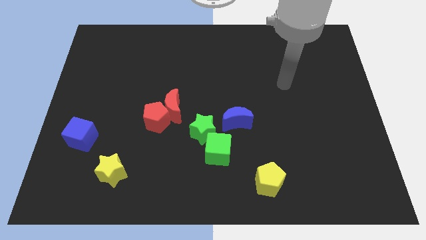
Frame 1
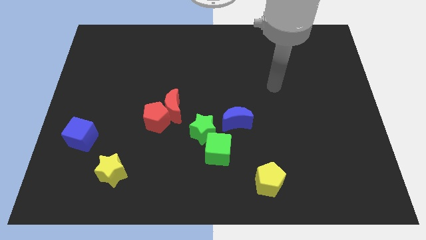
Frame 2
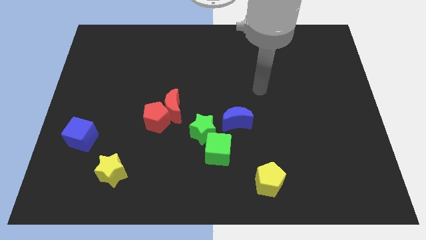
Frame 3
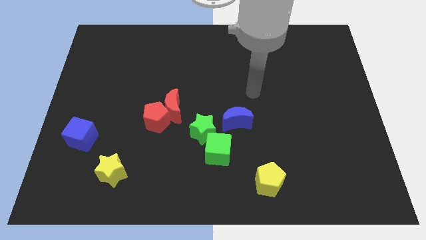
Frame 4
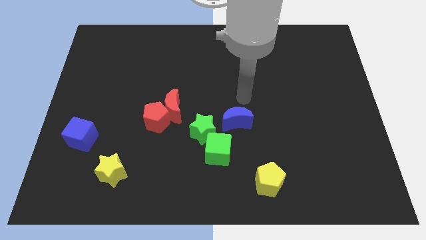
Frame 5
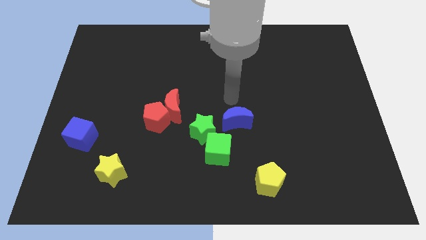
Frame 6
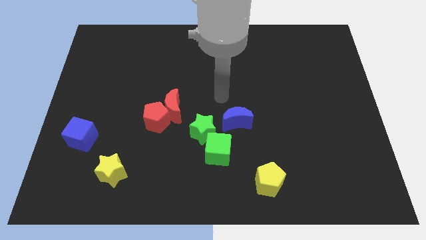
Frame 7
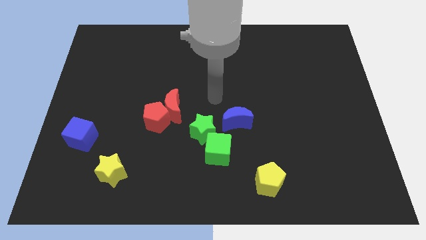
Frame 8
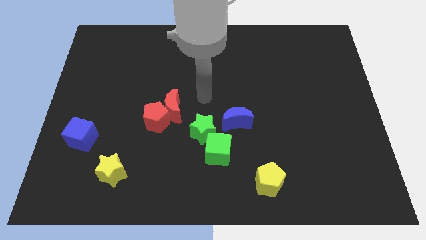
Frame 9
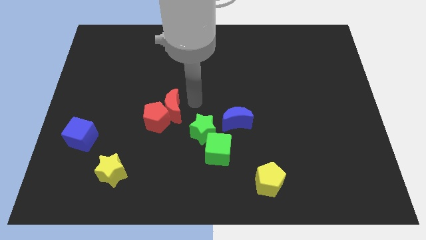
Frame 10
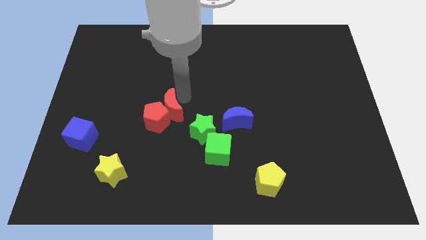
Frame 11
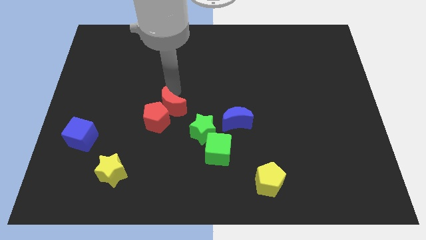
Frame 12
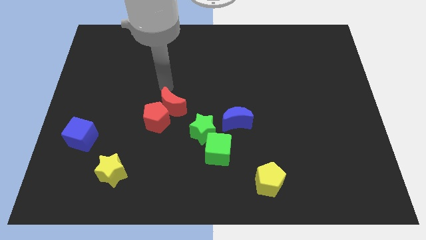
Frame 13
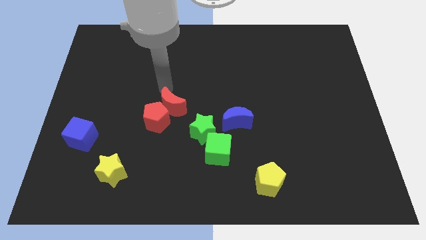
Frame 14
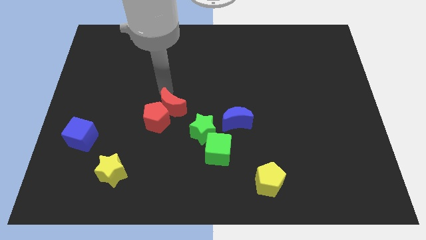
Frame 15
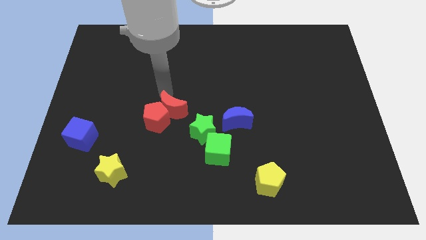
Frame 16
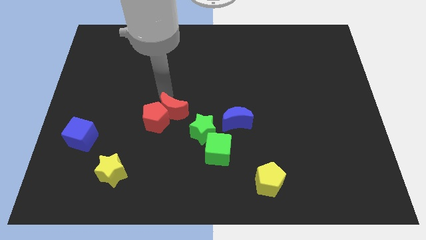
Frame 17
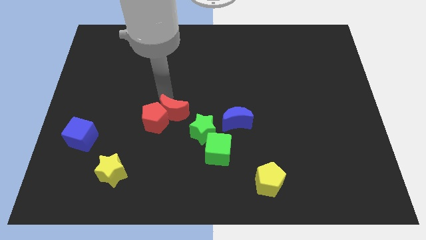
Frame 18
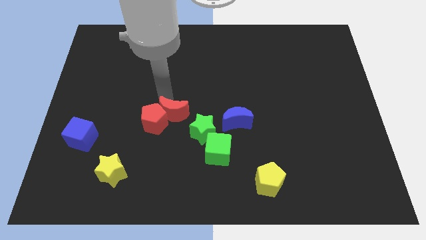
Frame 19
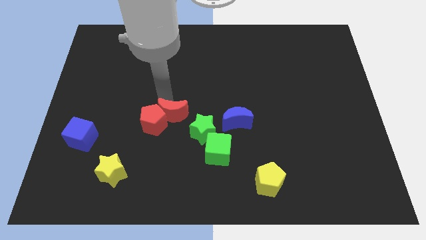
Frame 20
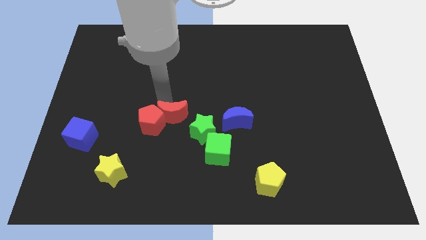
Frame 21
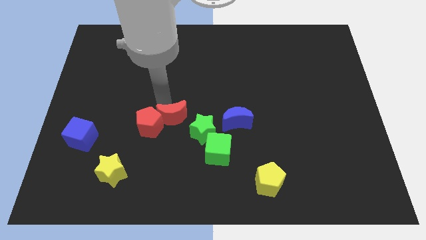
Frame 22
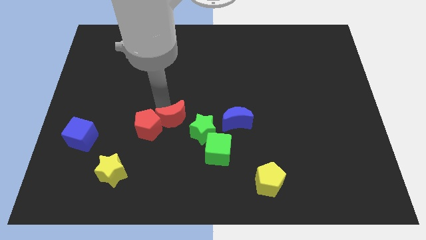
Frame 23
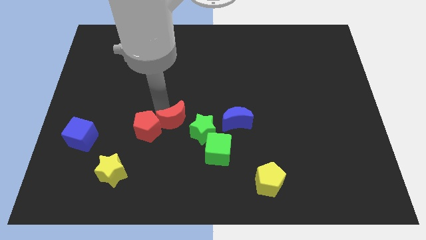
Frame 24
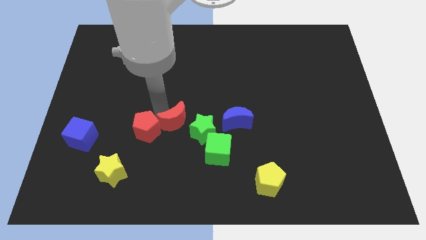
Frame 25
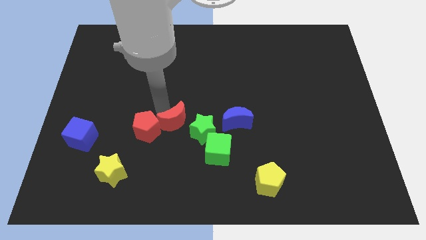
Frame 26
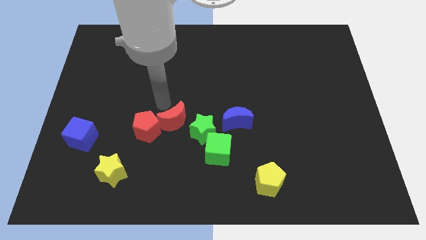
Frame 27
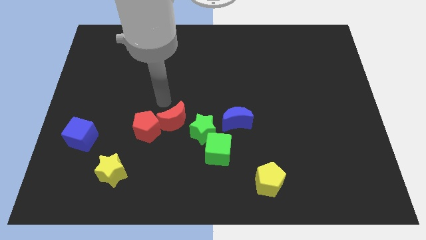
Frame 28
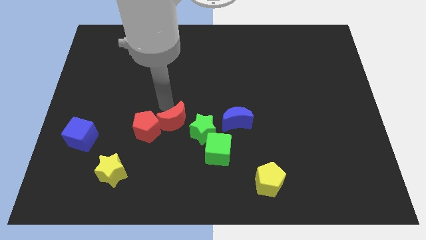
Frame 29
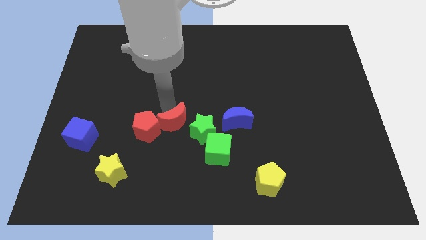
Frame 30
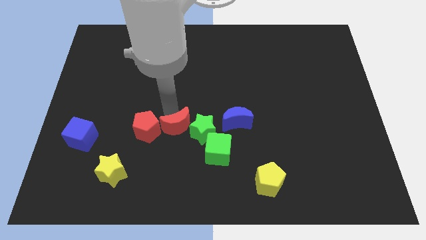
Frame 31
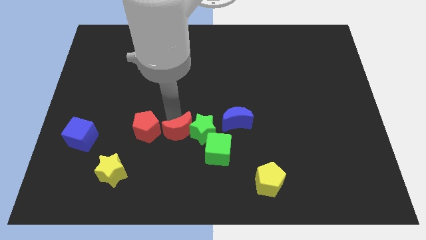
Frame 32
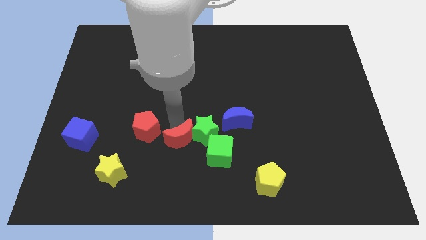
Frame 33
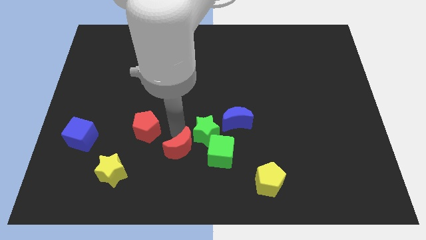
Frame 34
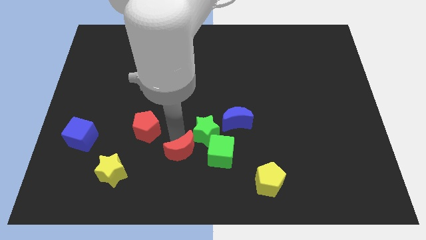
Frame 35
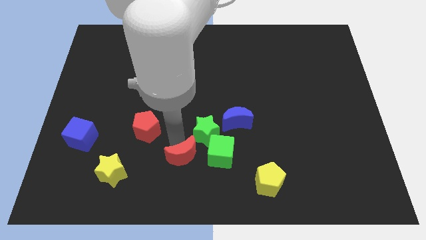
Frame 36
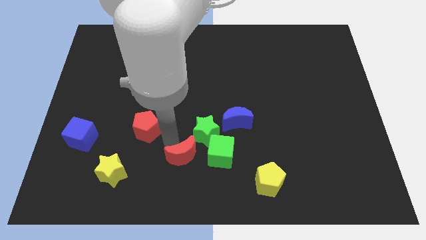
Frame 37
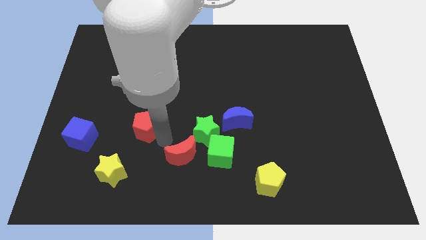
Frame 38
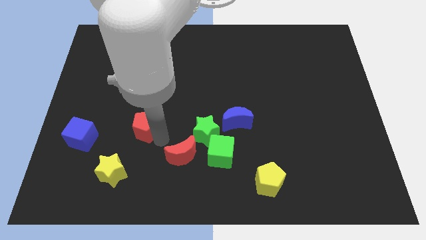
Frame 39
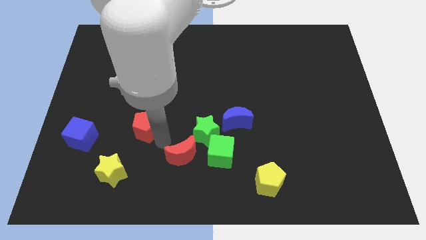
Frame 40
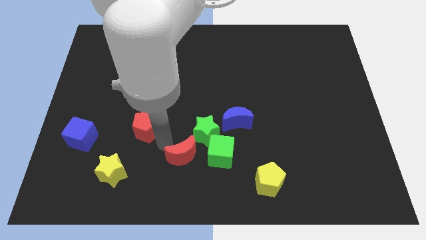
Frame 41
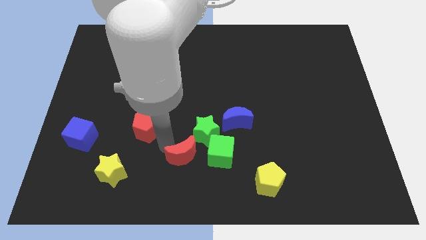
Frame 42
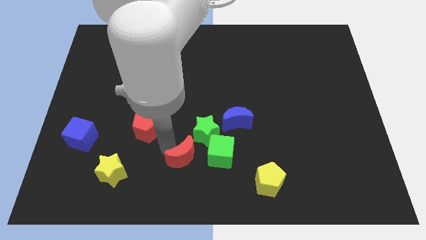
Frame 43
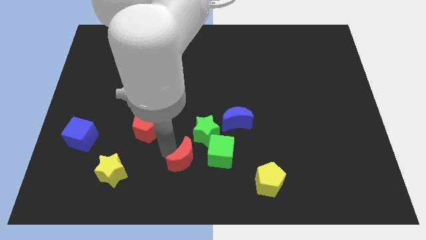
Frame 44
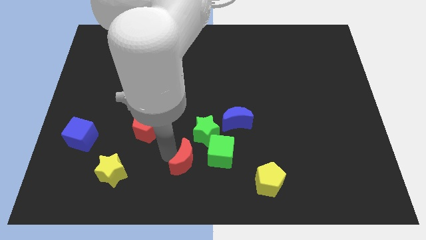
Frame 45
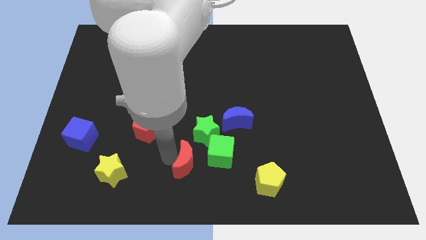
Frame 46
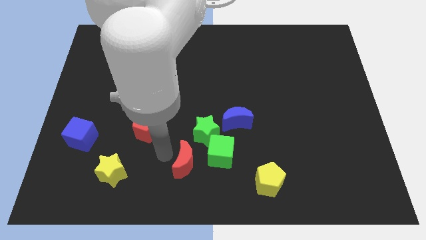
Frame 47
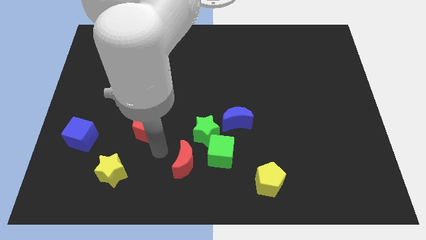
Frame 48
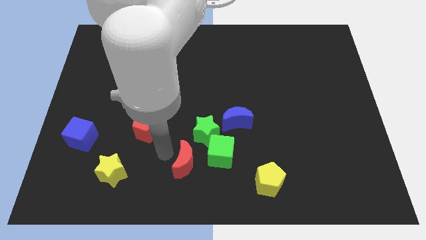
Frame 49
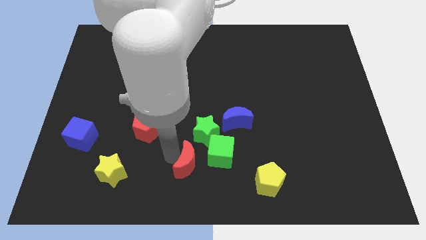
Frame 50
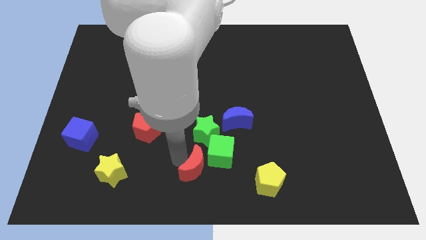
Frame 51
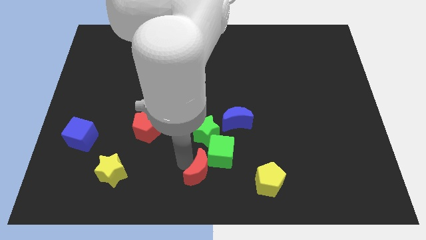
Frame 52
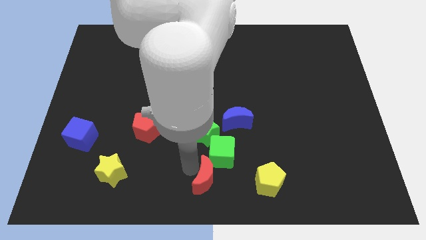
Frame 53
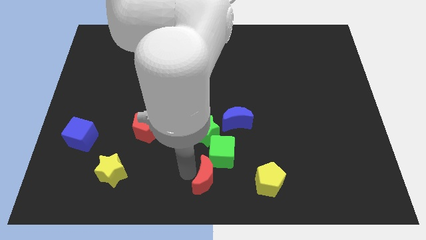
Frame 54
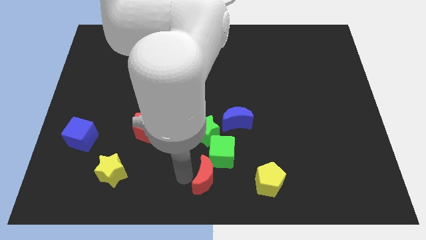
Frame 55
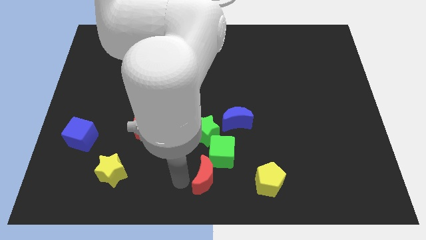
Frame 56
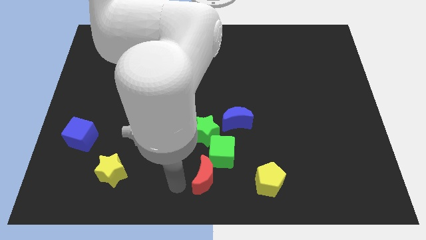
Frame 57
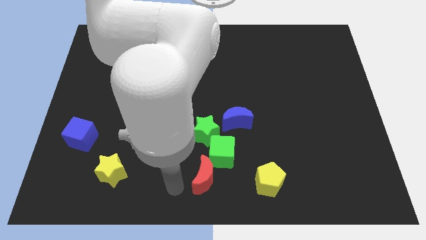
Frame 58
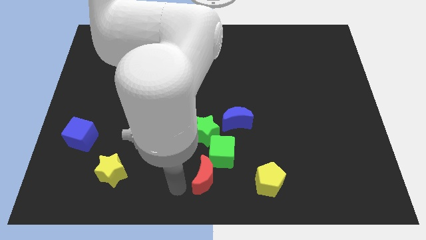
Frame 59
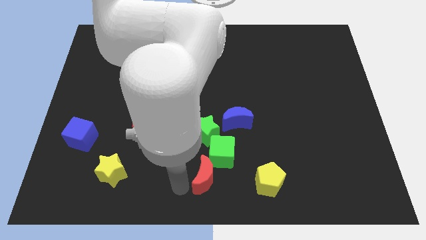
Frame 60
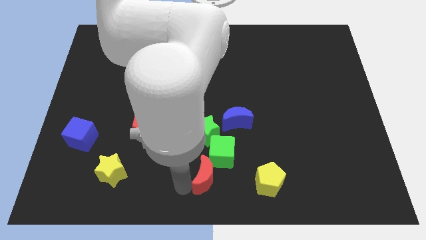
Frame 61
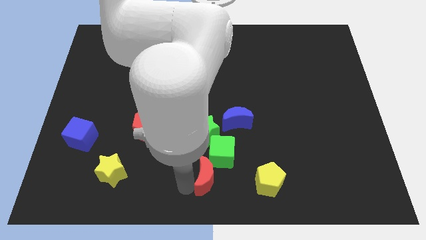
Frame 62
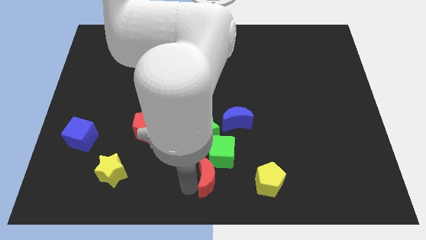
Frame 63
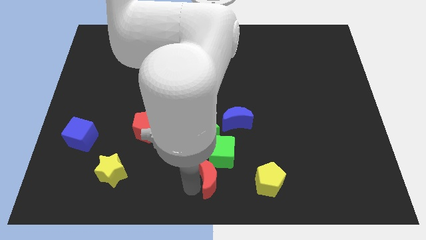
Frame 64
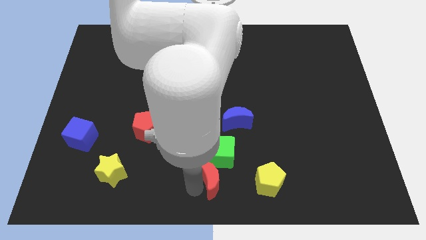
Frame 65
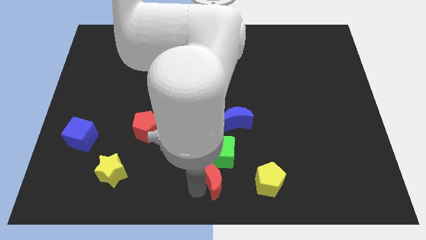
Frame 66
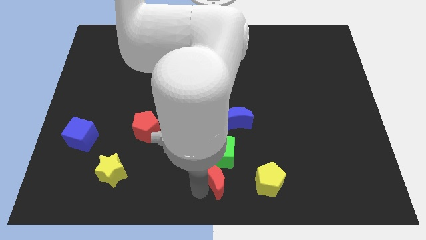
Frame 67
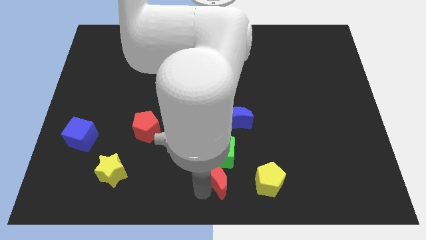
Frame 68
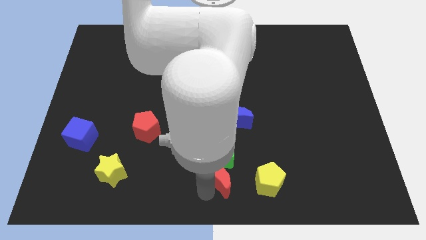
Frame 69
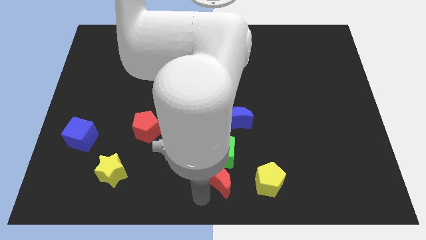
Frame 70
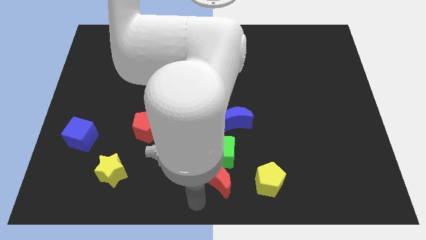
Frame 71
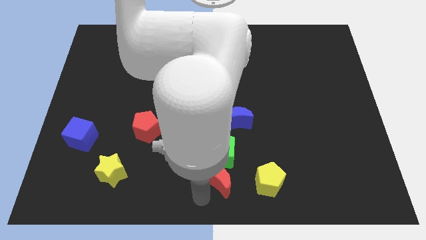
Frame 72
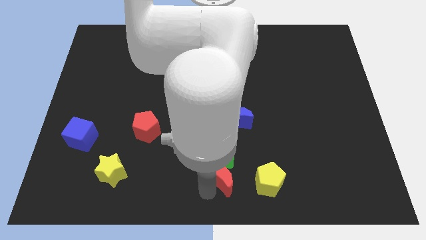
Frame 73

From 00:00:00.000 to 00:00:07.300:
move the red moon below the blue moon

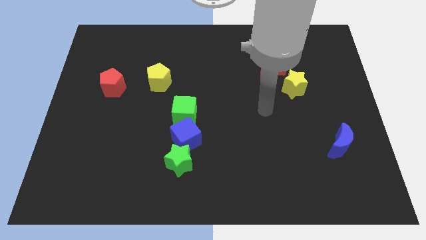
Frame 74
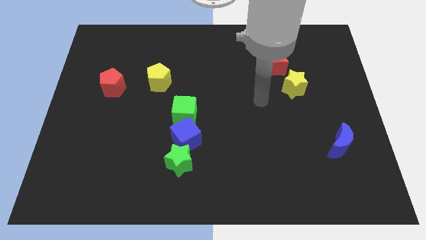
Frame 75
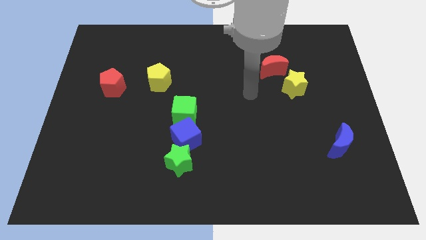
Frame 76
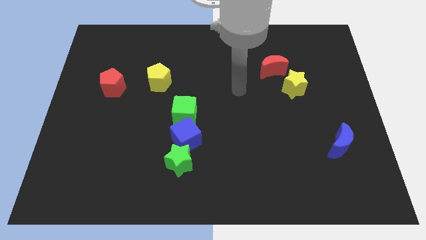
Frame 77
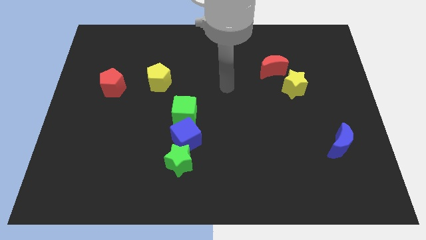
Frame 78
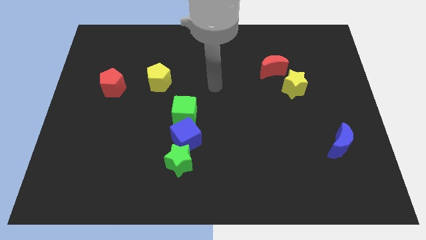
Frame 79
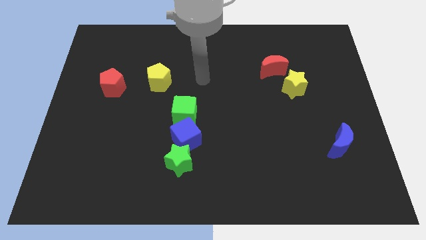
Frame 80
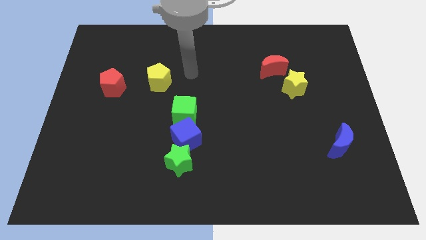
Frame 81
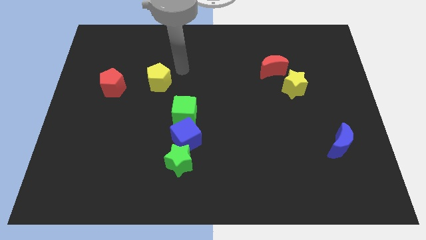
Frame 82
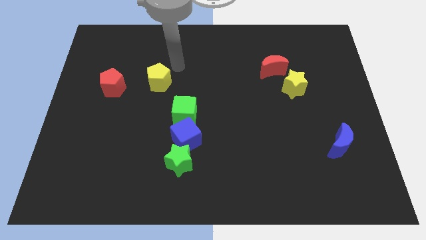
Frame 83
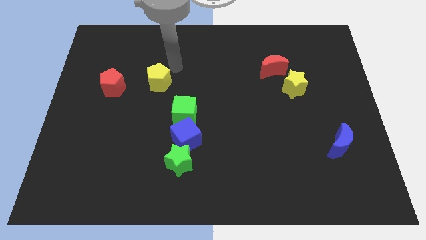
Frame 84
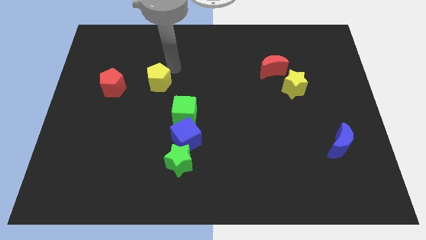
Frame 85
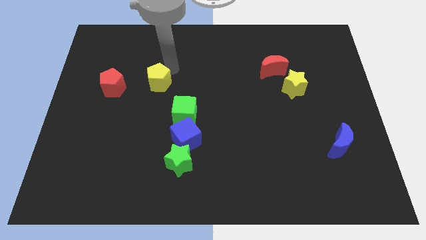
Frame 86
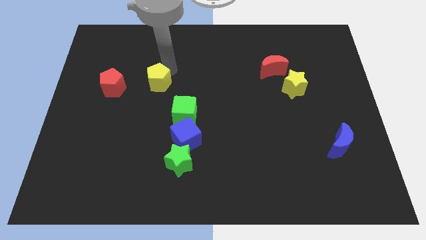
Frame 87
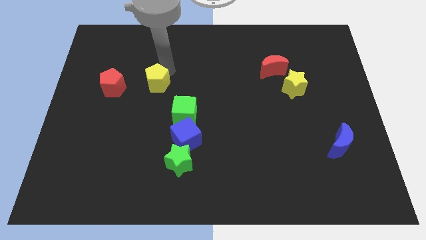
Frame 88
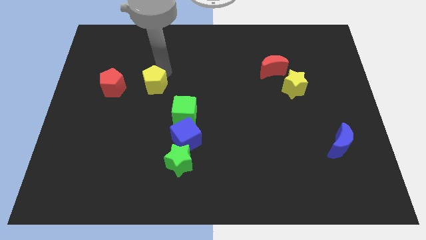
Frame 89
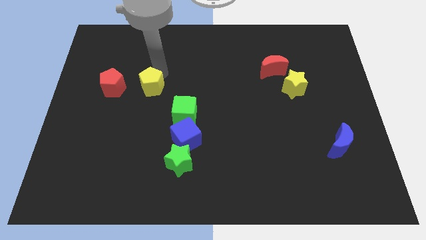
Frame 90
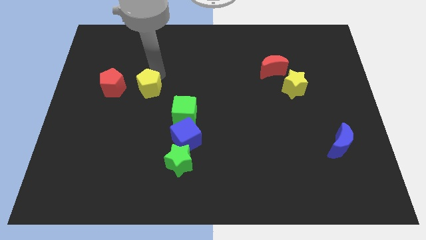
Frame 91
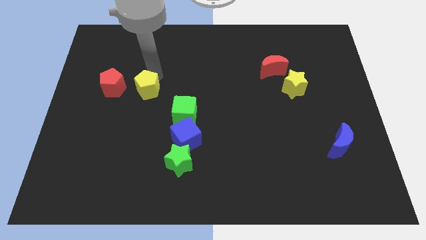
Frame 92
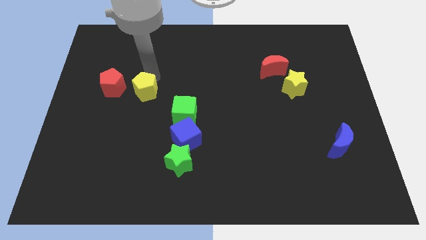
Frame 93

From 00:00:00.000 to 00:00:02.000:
move the yellow pentagon to the bottom right of the red pentagon
